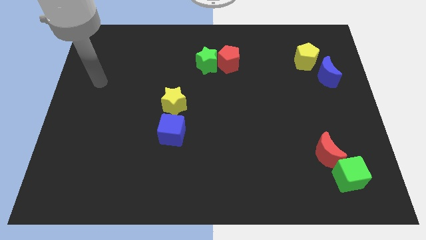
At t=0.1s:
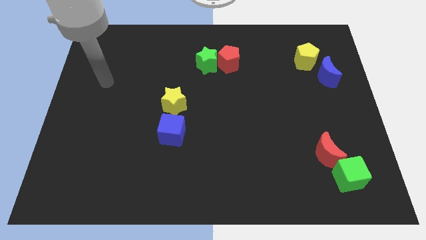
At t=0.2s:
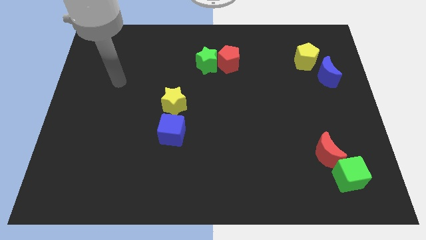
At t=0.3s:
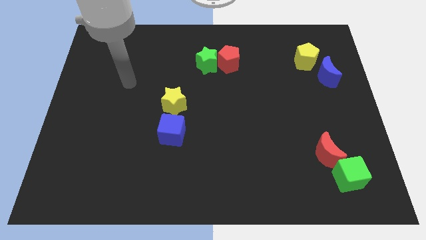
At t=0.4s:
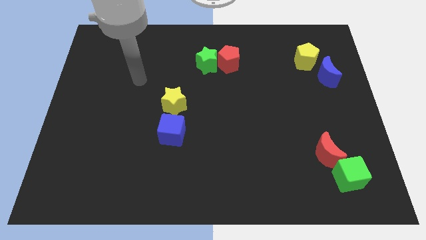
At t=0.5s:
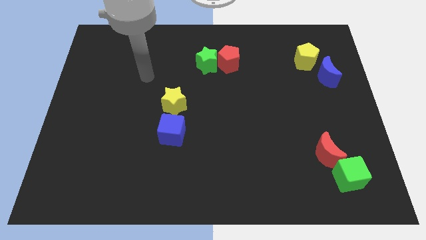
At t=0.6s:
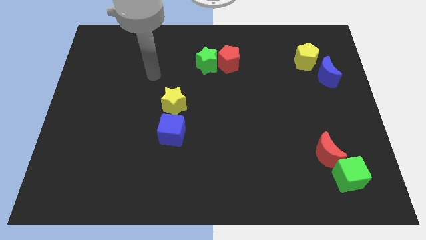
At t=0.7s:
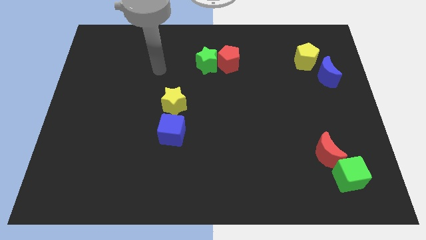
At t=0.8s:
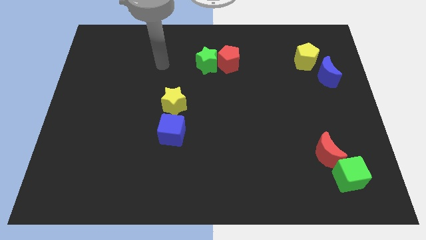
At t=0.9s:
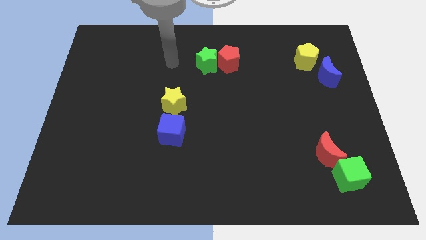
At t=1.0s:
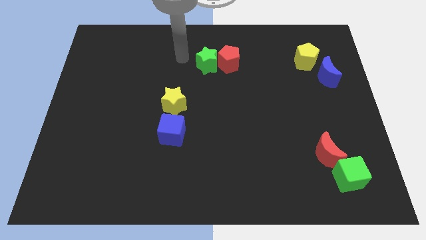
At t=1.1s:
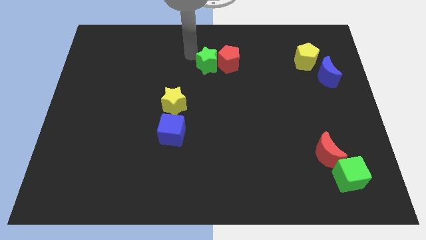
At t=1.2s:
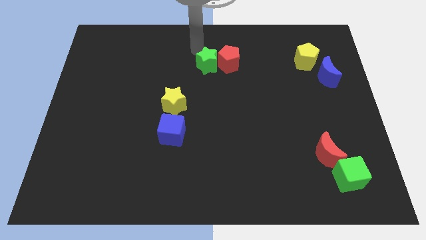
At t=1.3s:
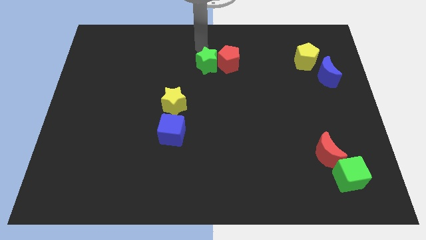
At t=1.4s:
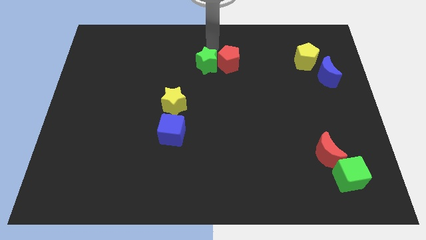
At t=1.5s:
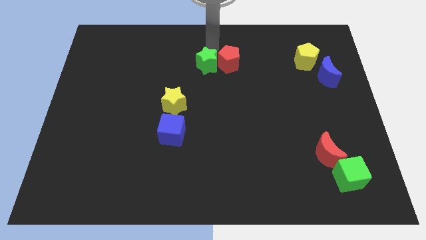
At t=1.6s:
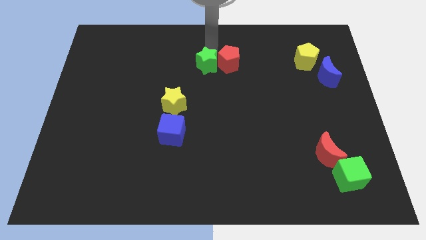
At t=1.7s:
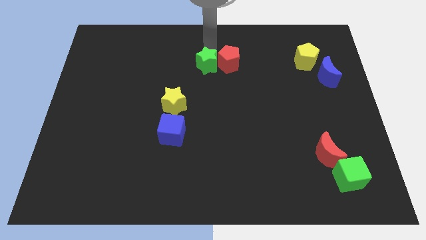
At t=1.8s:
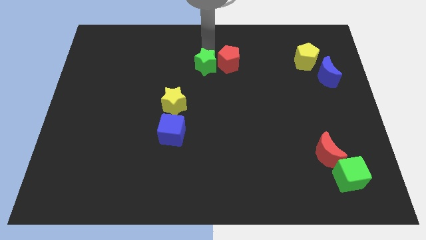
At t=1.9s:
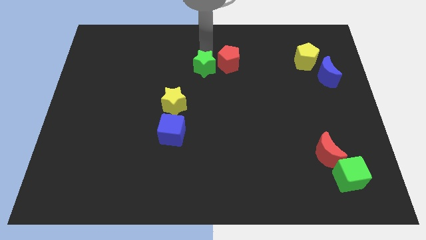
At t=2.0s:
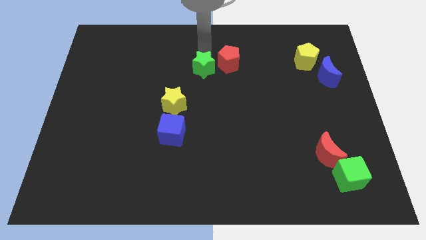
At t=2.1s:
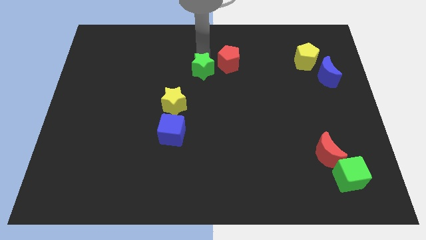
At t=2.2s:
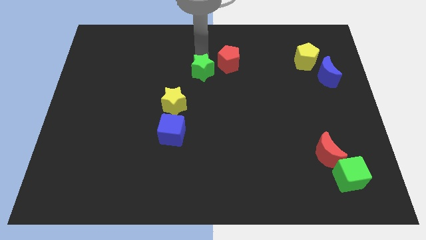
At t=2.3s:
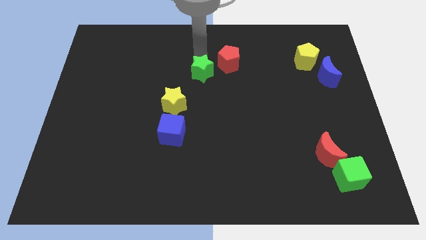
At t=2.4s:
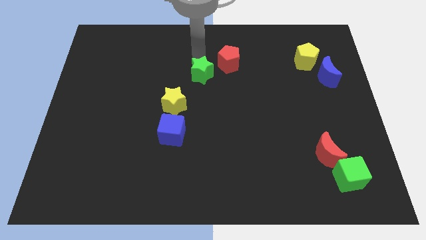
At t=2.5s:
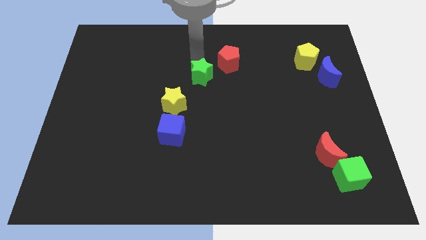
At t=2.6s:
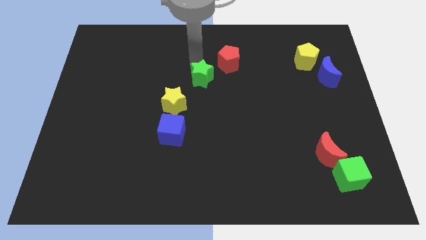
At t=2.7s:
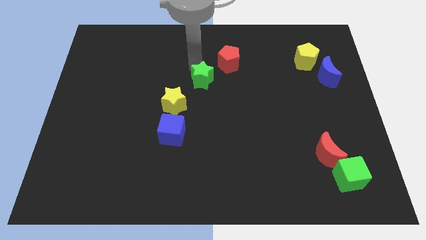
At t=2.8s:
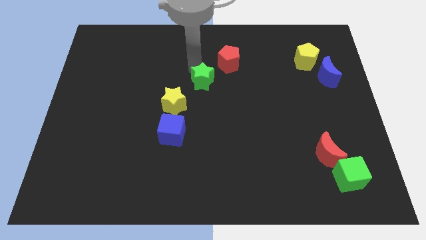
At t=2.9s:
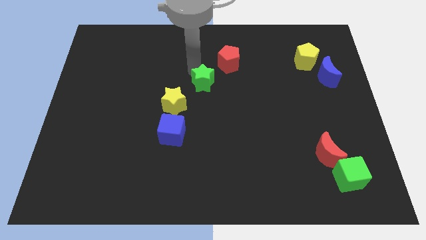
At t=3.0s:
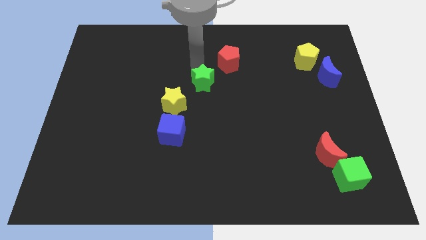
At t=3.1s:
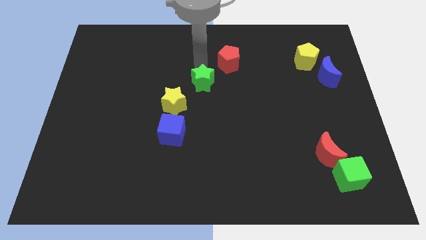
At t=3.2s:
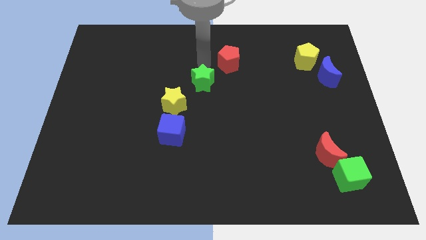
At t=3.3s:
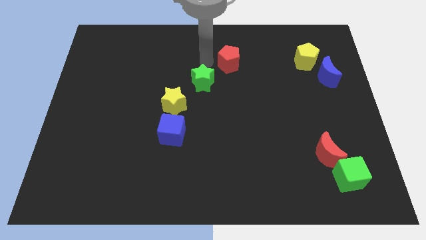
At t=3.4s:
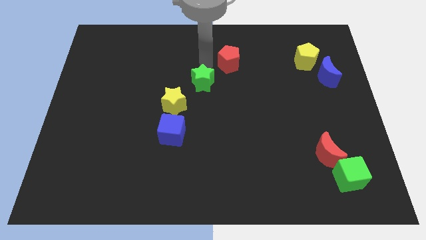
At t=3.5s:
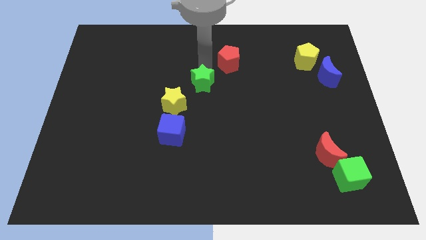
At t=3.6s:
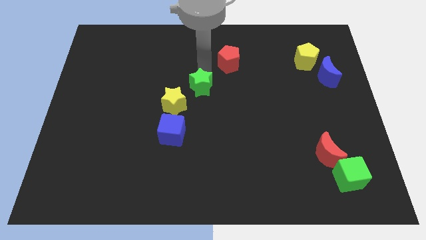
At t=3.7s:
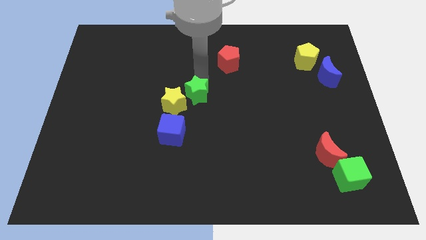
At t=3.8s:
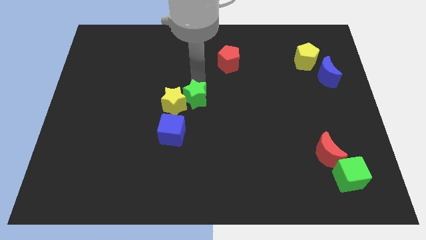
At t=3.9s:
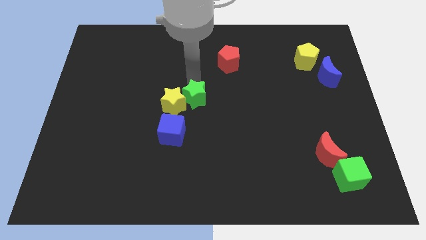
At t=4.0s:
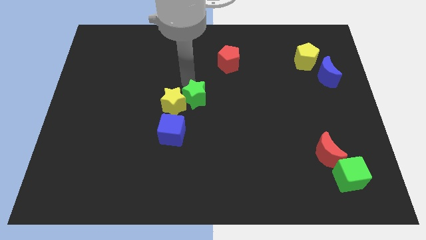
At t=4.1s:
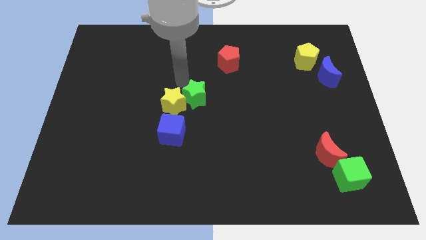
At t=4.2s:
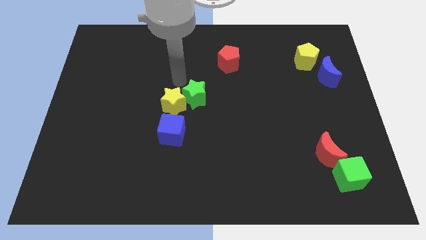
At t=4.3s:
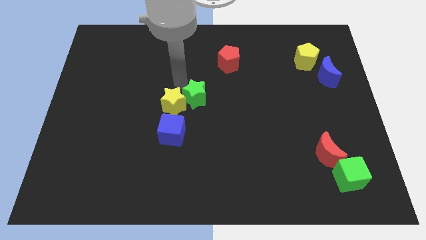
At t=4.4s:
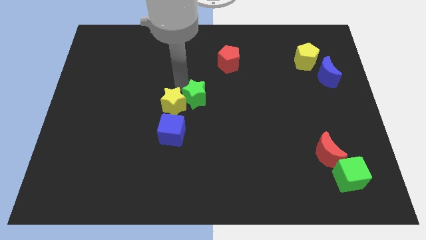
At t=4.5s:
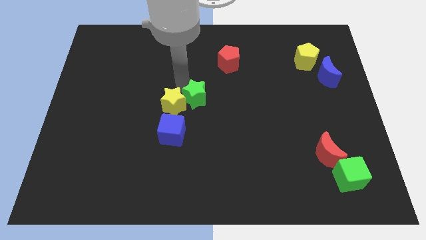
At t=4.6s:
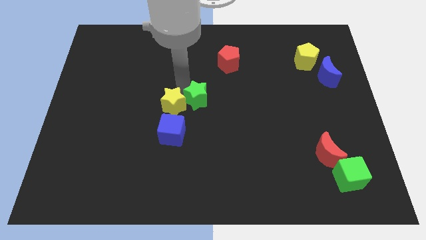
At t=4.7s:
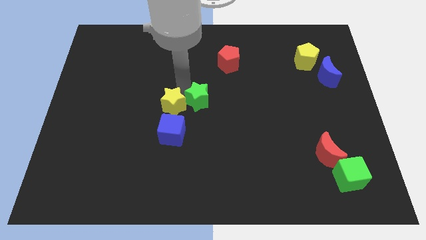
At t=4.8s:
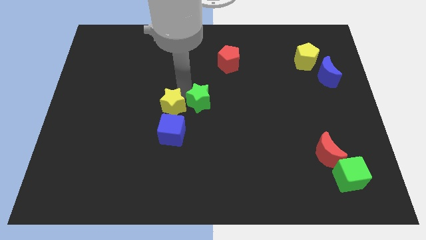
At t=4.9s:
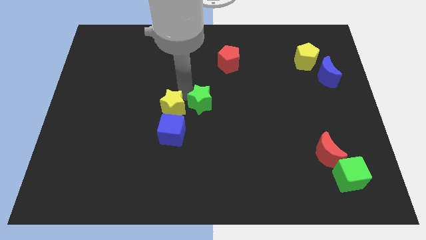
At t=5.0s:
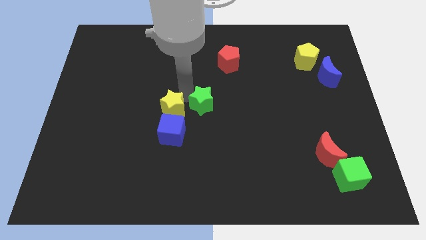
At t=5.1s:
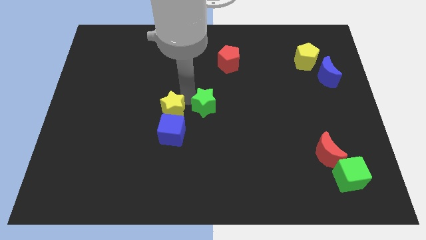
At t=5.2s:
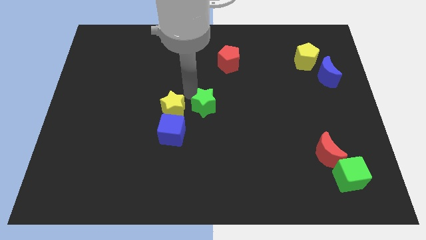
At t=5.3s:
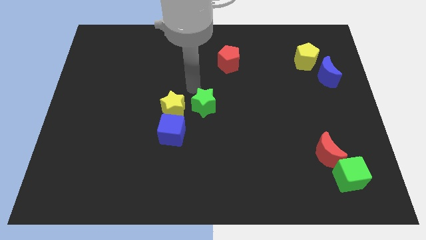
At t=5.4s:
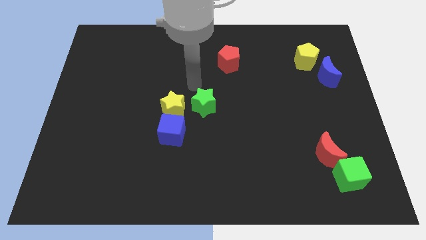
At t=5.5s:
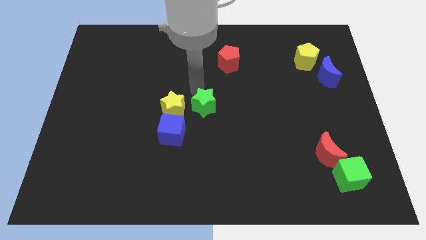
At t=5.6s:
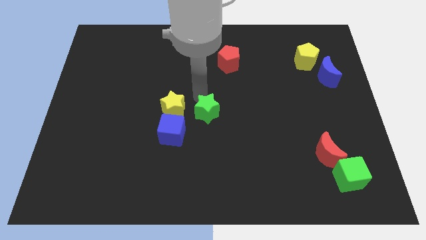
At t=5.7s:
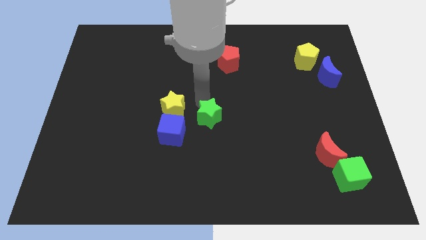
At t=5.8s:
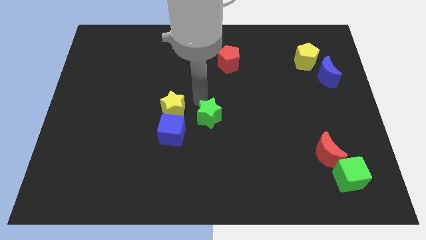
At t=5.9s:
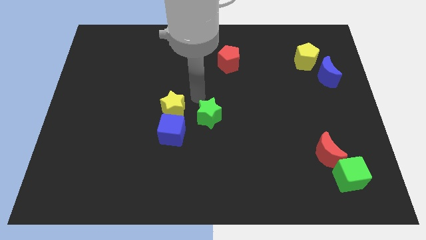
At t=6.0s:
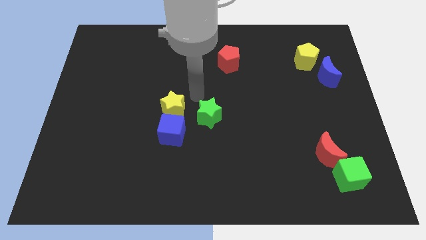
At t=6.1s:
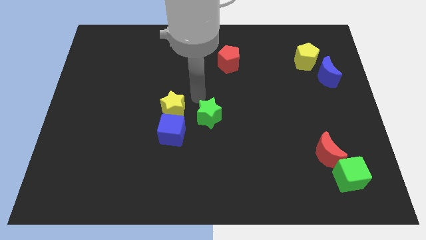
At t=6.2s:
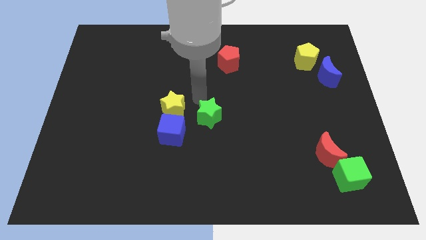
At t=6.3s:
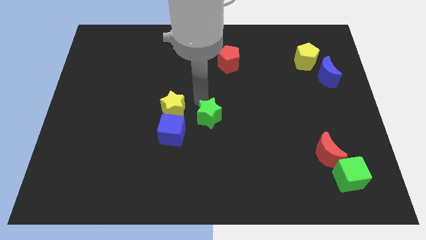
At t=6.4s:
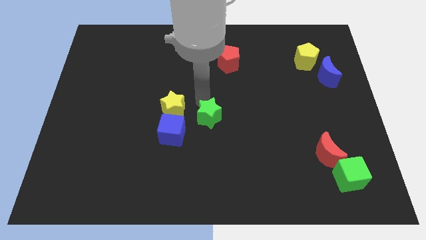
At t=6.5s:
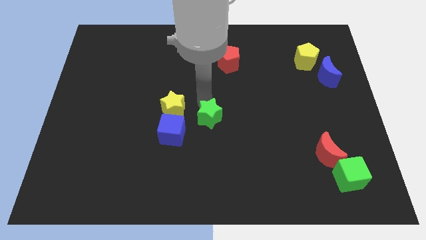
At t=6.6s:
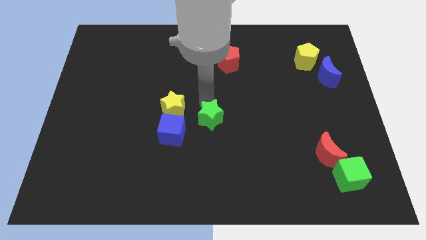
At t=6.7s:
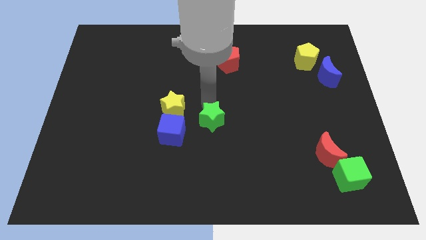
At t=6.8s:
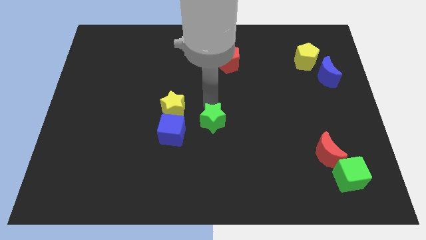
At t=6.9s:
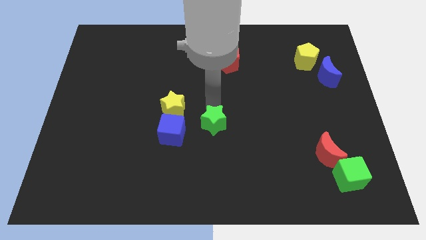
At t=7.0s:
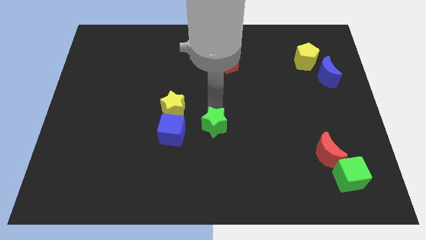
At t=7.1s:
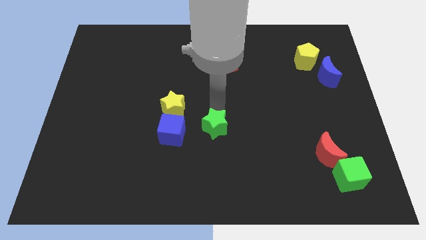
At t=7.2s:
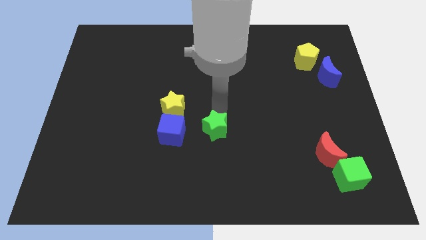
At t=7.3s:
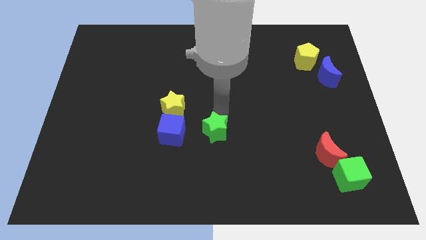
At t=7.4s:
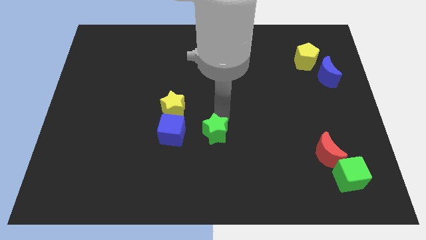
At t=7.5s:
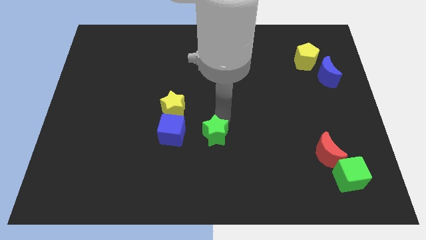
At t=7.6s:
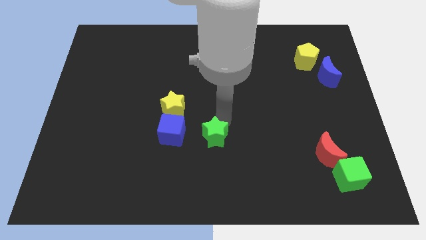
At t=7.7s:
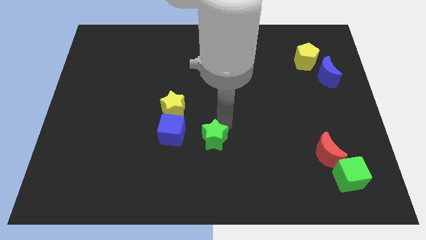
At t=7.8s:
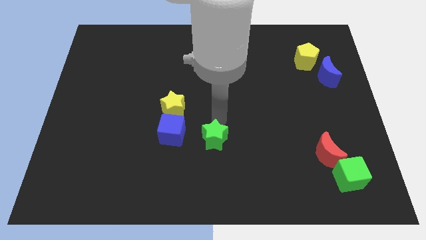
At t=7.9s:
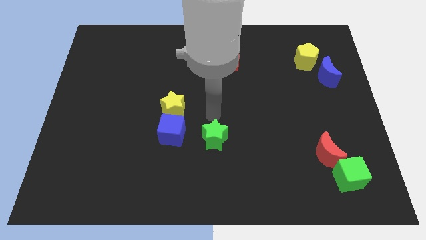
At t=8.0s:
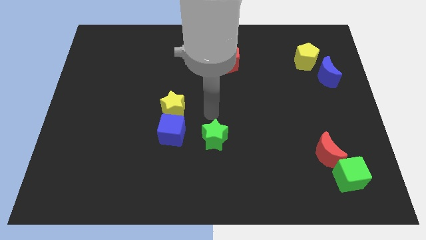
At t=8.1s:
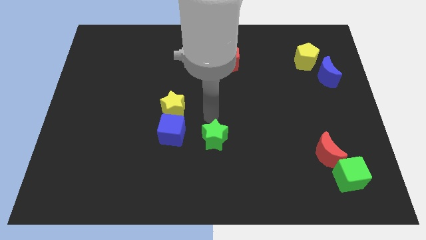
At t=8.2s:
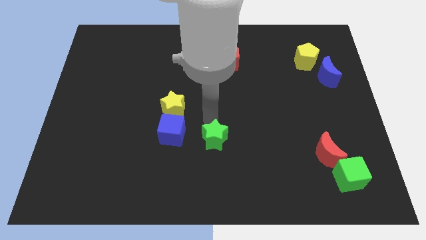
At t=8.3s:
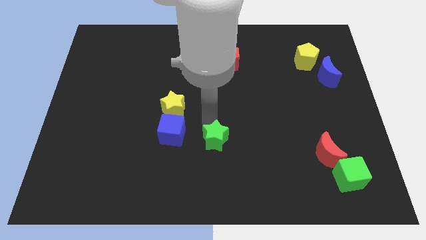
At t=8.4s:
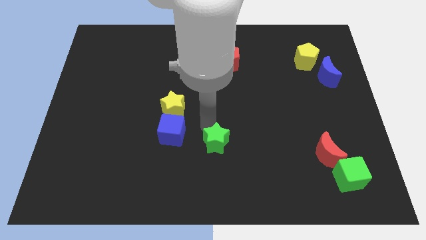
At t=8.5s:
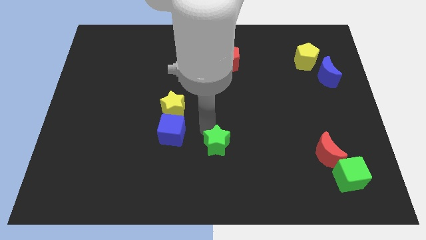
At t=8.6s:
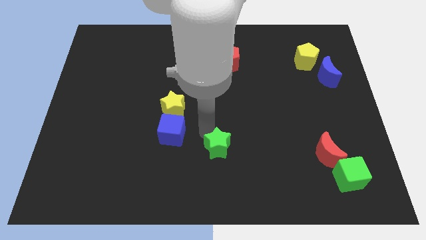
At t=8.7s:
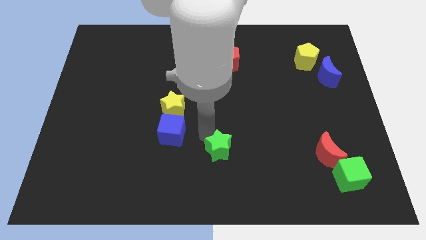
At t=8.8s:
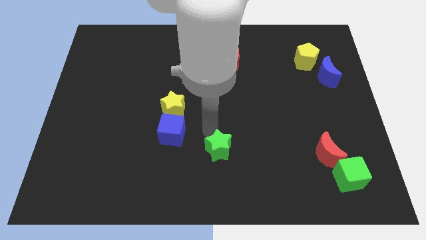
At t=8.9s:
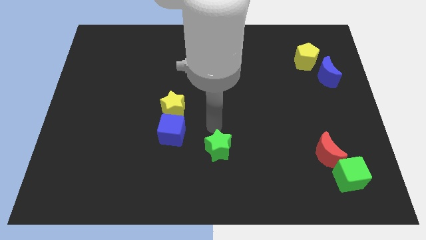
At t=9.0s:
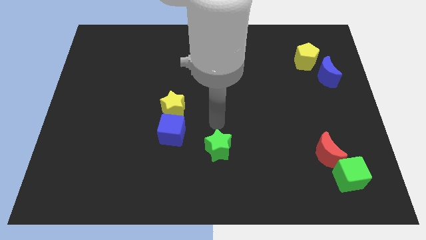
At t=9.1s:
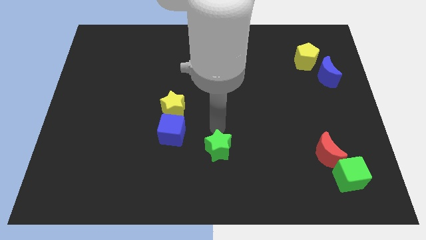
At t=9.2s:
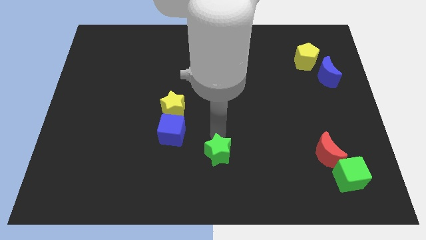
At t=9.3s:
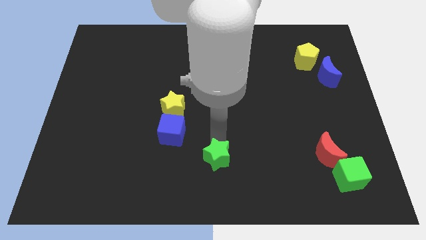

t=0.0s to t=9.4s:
put the green star to the bottom
